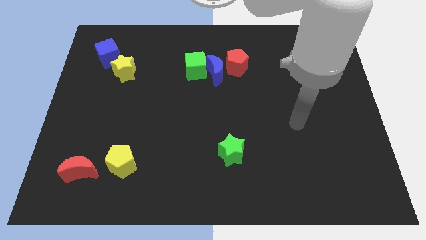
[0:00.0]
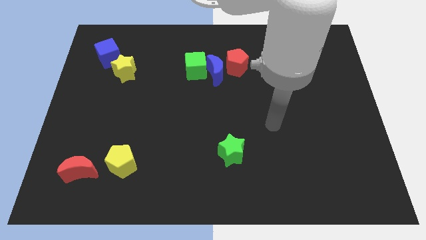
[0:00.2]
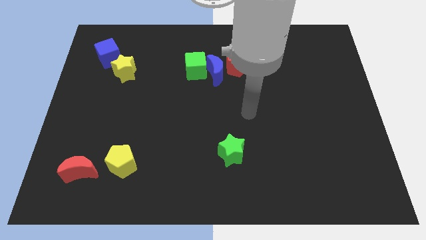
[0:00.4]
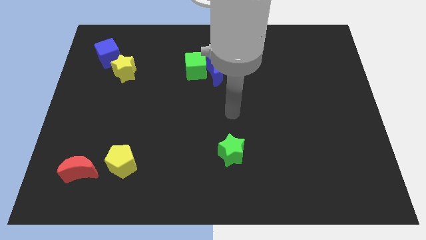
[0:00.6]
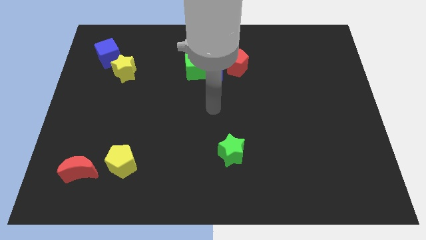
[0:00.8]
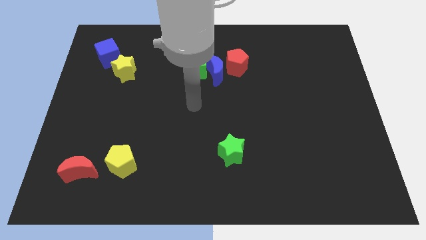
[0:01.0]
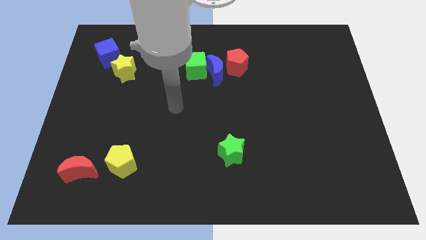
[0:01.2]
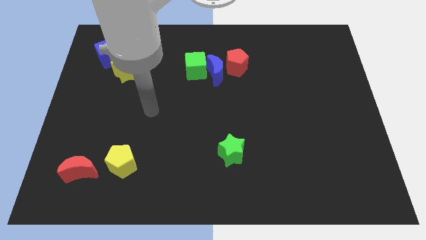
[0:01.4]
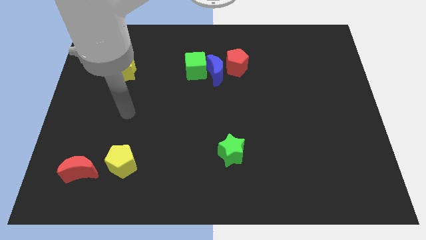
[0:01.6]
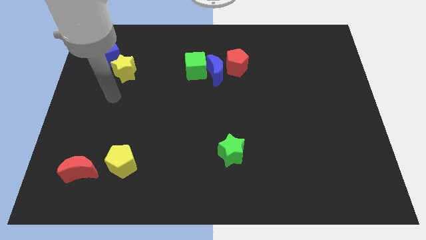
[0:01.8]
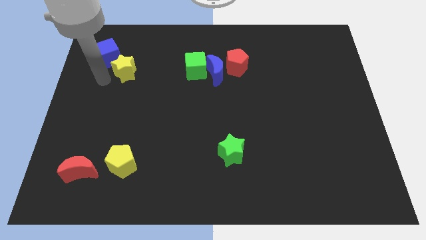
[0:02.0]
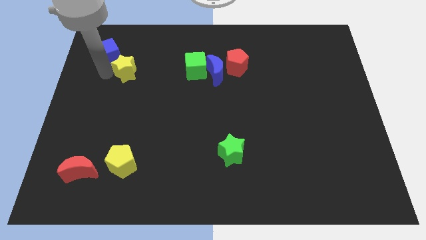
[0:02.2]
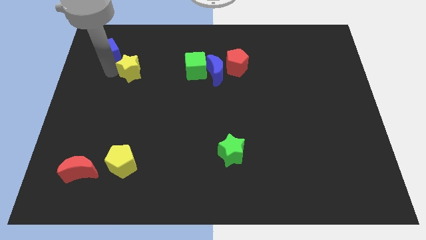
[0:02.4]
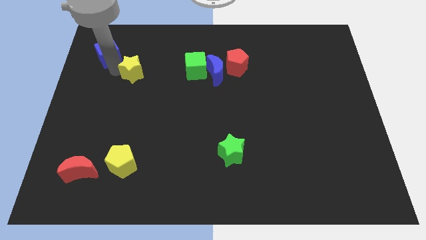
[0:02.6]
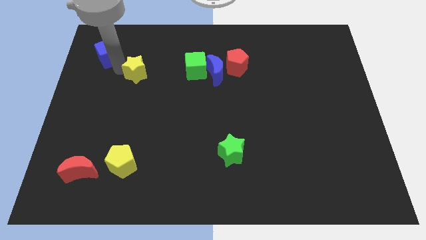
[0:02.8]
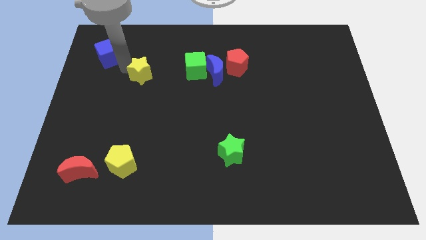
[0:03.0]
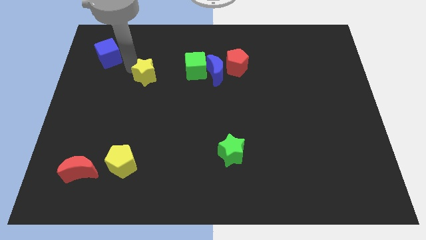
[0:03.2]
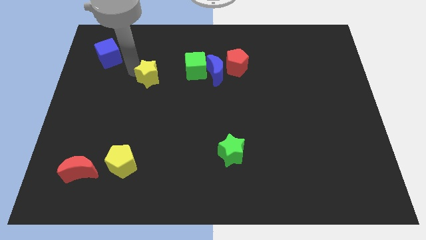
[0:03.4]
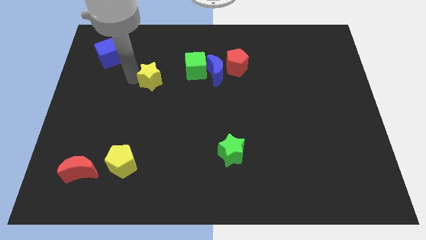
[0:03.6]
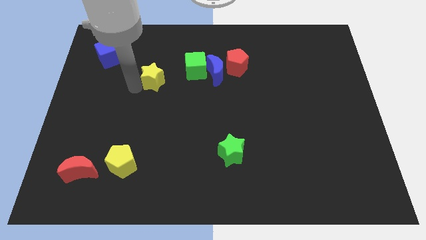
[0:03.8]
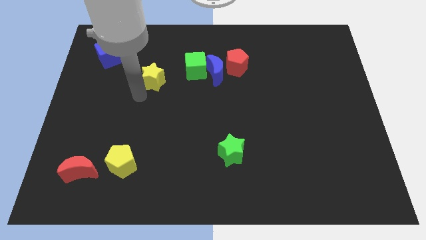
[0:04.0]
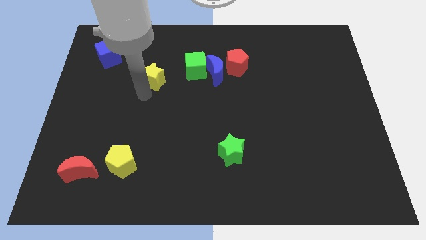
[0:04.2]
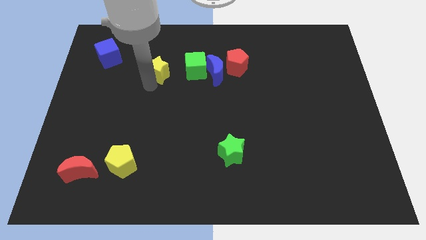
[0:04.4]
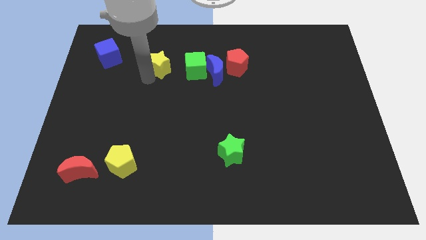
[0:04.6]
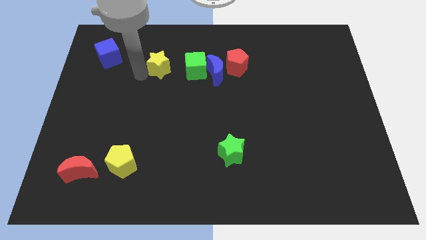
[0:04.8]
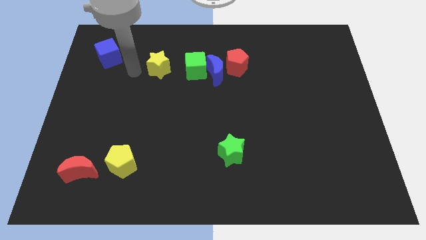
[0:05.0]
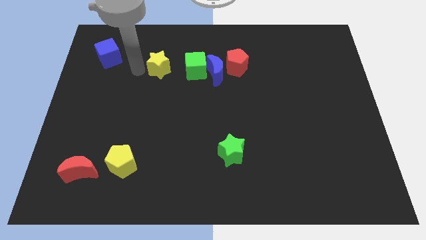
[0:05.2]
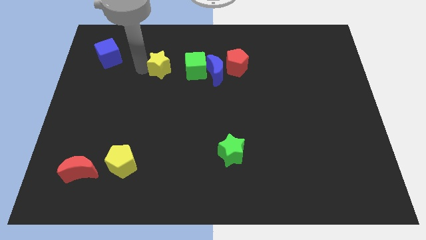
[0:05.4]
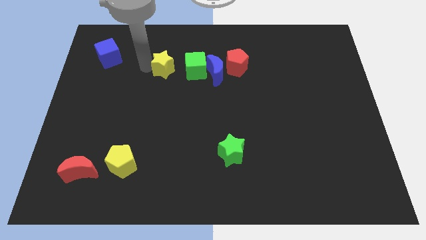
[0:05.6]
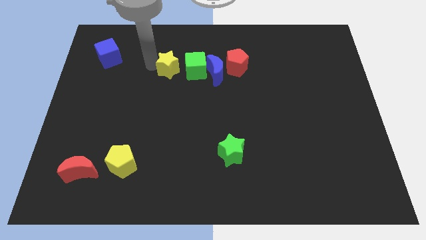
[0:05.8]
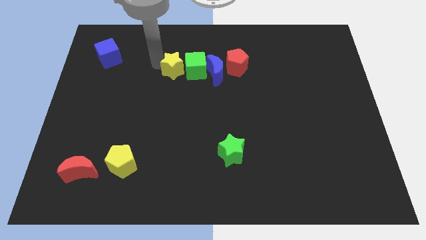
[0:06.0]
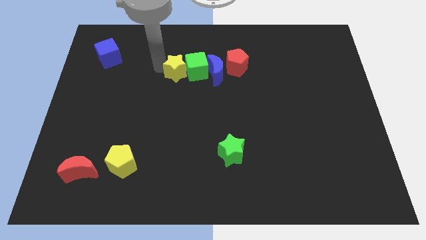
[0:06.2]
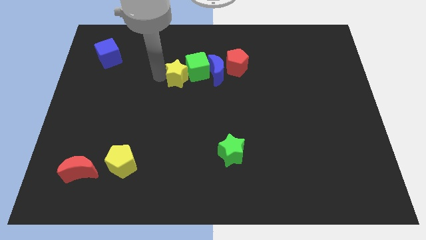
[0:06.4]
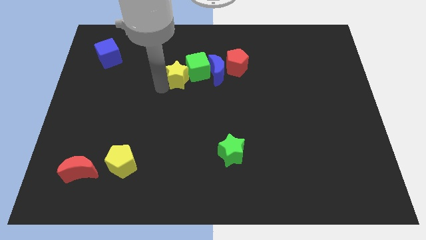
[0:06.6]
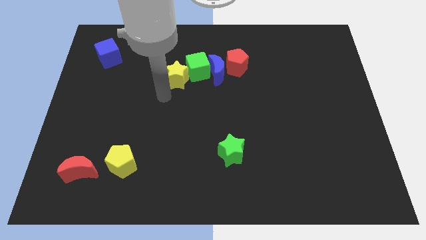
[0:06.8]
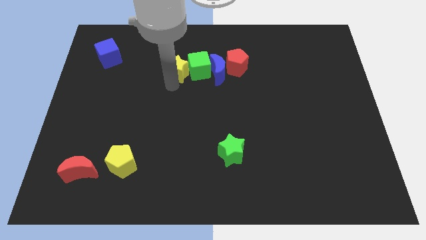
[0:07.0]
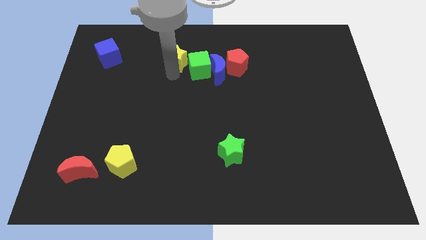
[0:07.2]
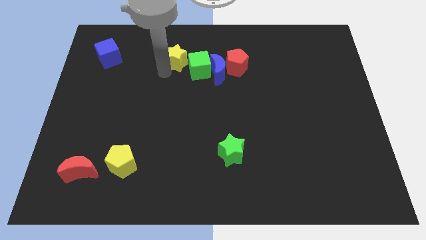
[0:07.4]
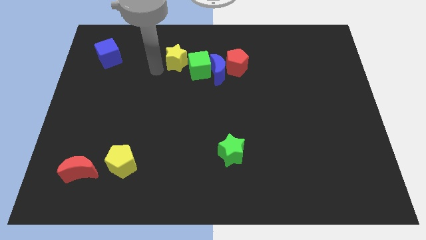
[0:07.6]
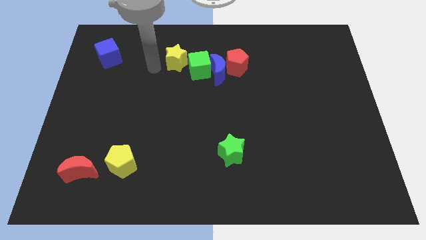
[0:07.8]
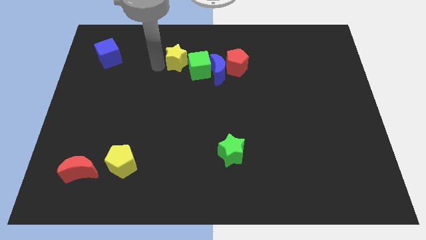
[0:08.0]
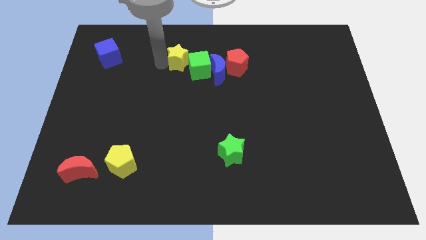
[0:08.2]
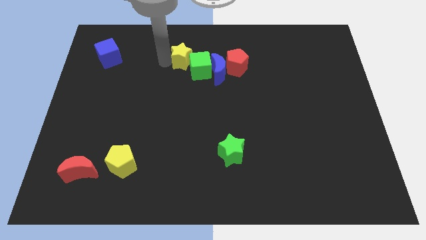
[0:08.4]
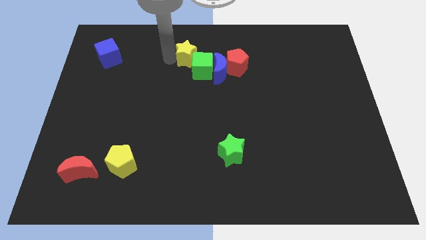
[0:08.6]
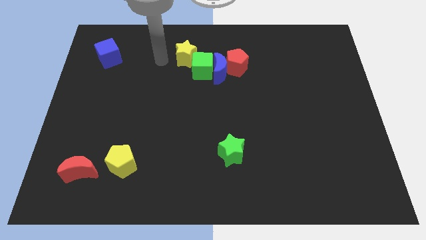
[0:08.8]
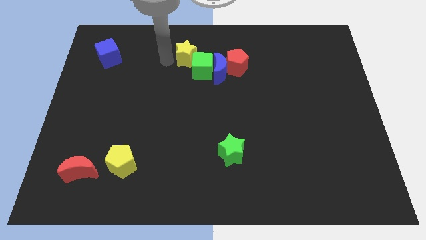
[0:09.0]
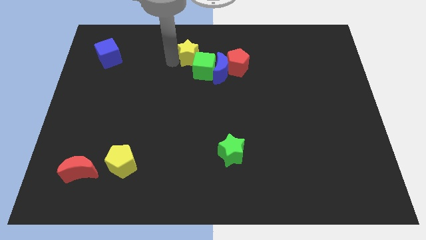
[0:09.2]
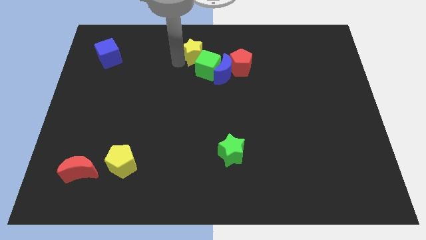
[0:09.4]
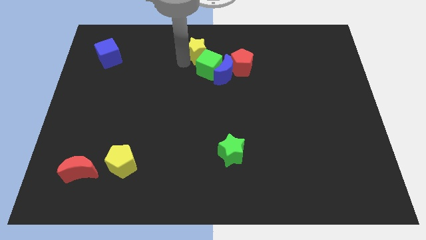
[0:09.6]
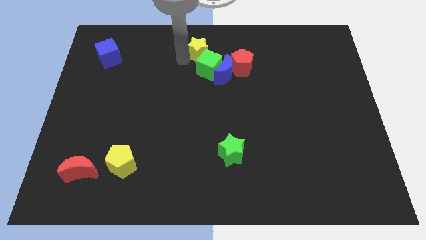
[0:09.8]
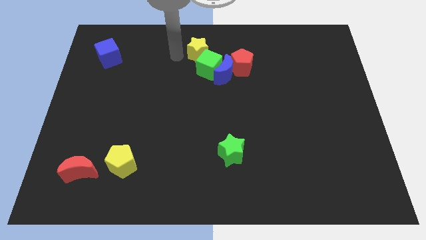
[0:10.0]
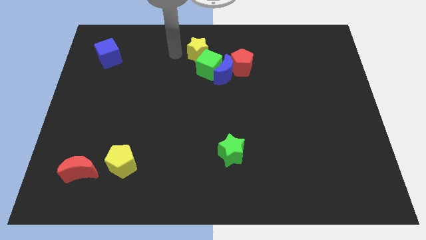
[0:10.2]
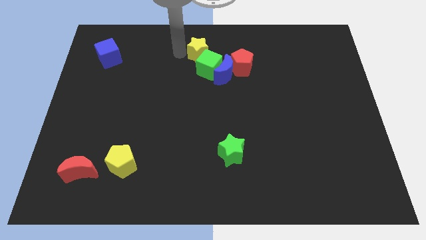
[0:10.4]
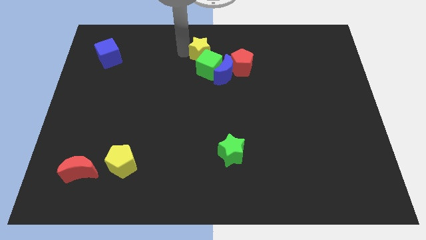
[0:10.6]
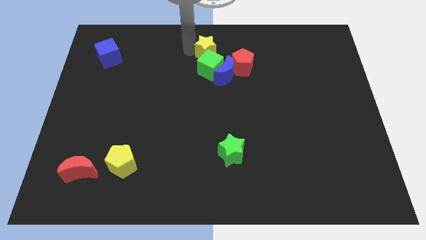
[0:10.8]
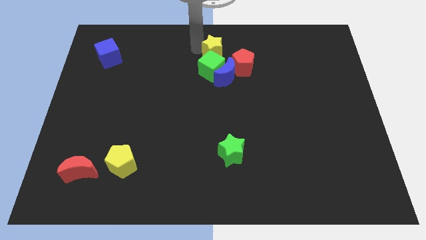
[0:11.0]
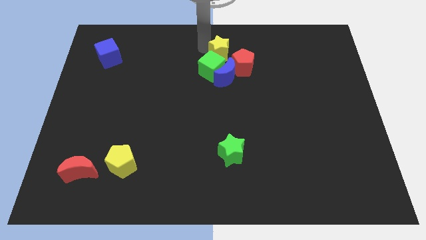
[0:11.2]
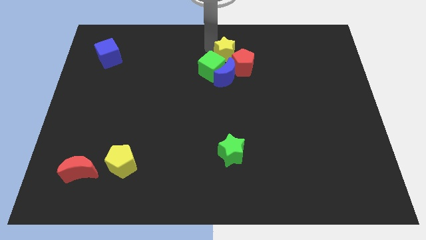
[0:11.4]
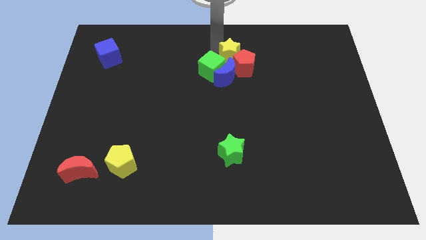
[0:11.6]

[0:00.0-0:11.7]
slide the yellow star to the top right of the blue moon

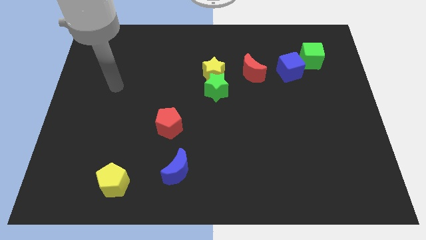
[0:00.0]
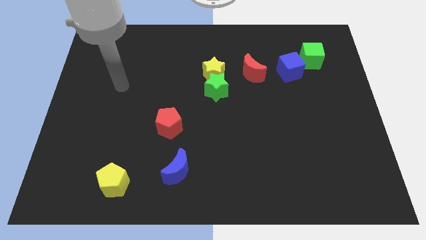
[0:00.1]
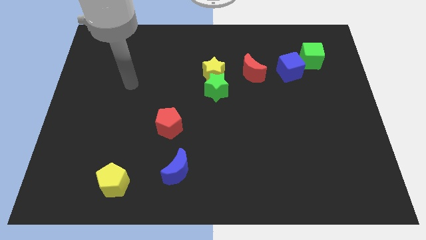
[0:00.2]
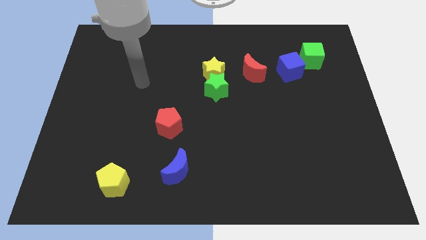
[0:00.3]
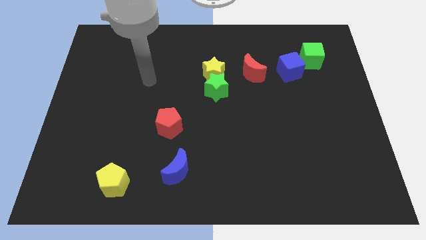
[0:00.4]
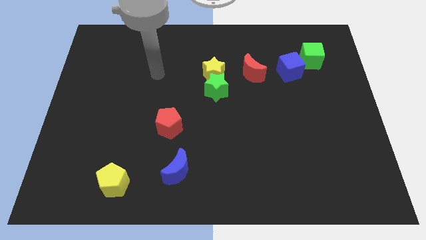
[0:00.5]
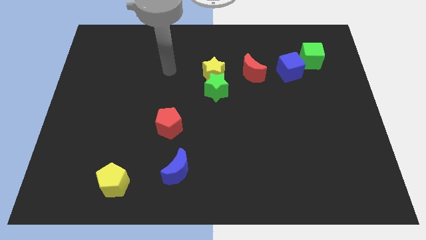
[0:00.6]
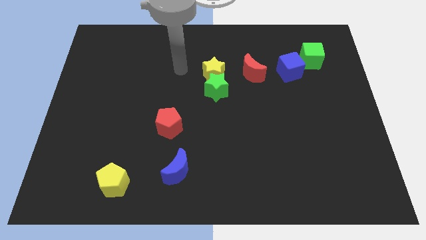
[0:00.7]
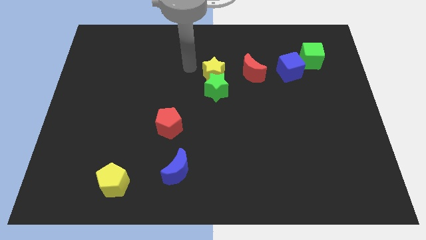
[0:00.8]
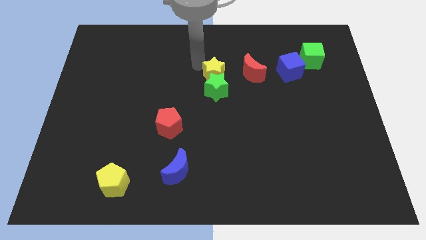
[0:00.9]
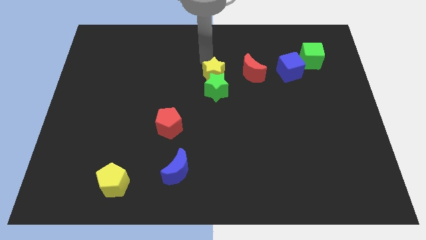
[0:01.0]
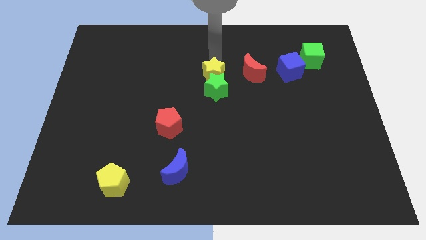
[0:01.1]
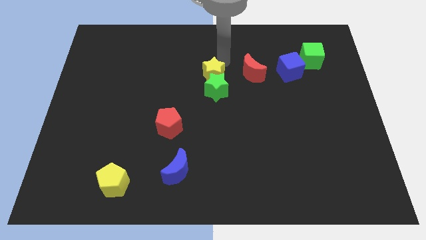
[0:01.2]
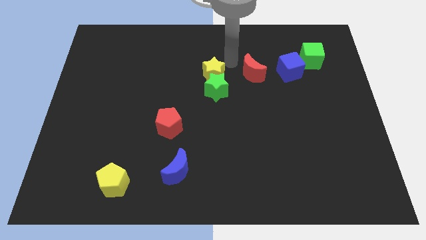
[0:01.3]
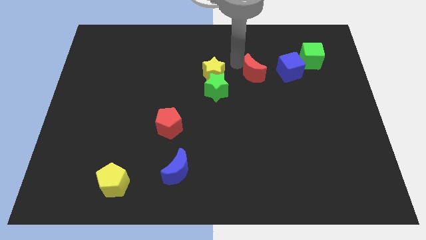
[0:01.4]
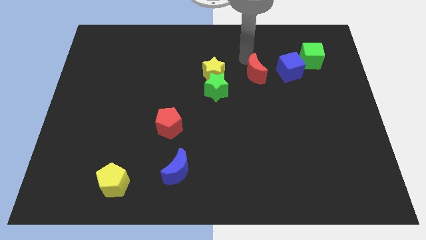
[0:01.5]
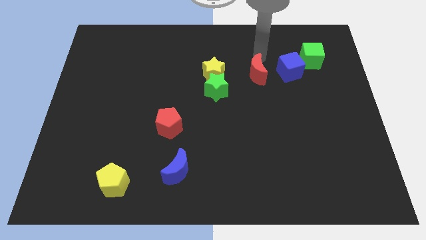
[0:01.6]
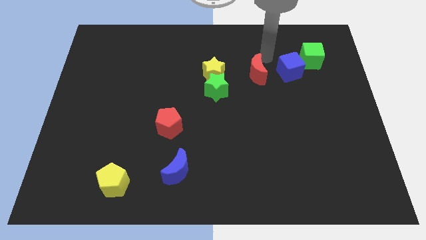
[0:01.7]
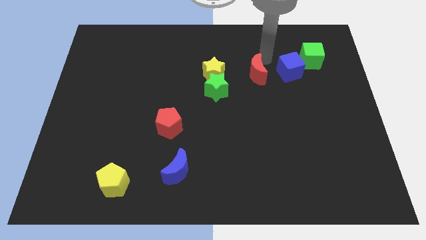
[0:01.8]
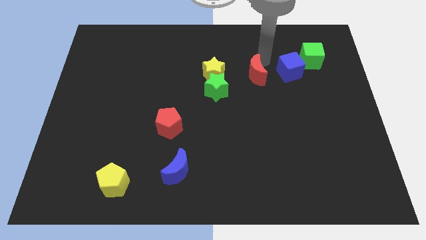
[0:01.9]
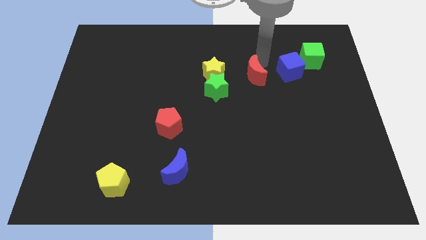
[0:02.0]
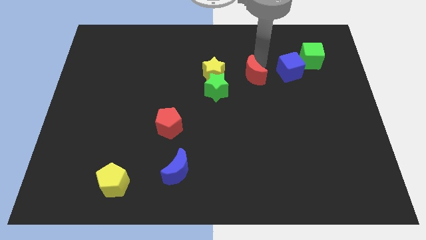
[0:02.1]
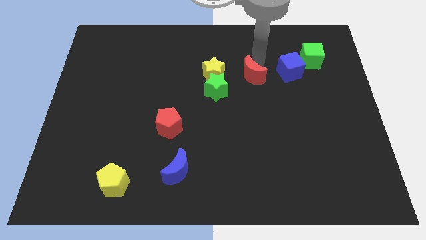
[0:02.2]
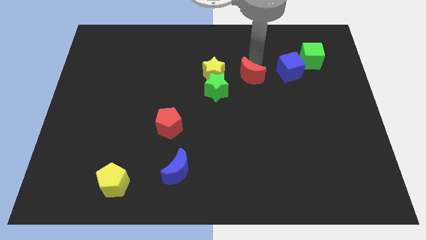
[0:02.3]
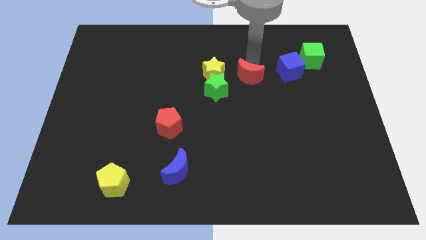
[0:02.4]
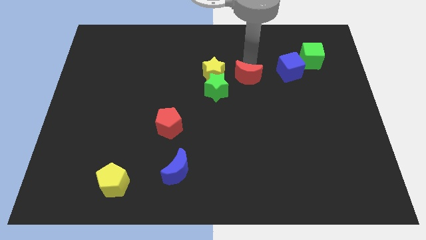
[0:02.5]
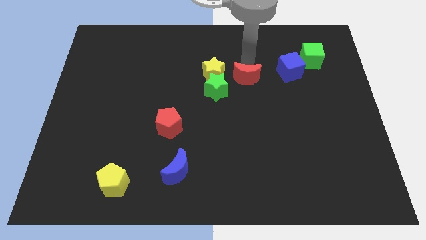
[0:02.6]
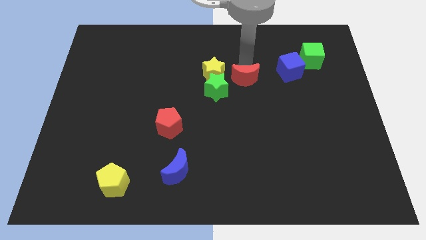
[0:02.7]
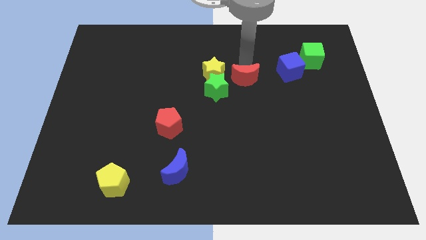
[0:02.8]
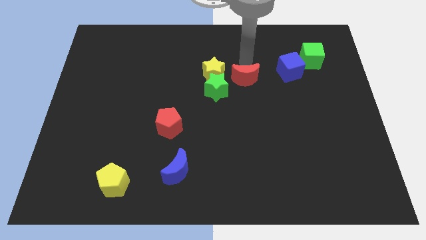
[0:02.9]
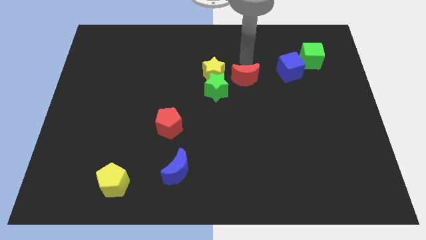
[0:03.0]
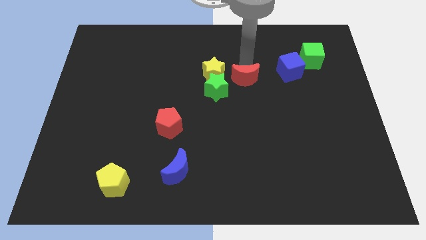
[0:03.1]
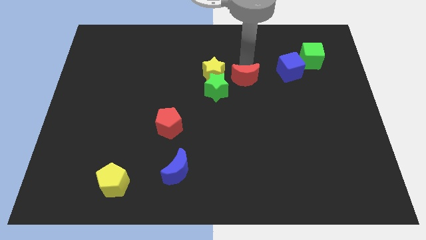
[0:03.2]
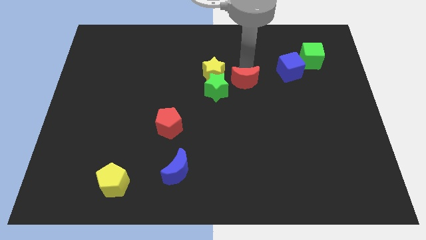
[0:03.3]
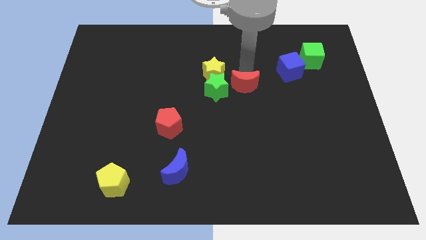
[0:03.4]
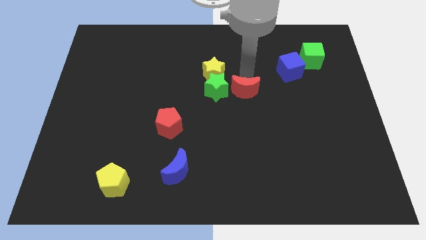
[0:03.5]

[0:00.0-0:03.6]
slide the red moon to the bottom right of the green star
